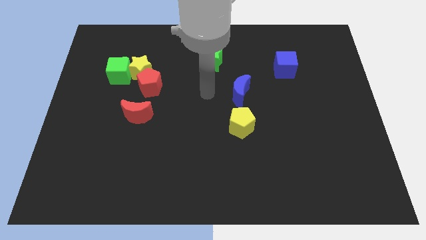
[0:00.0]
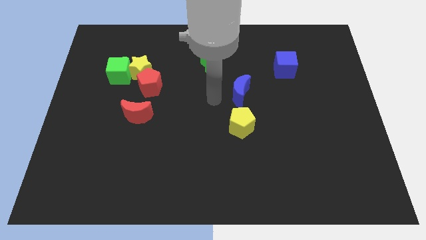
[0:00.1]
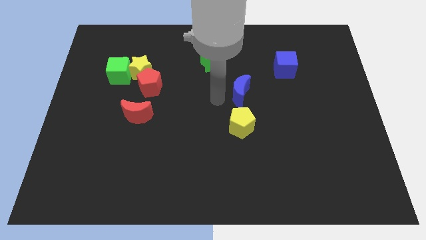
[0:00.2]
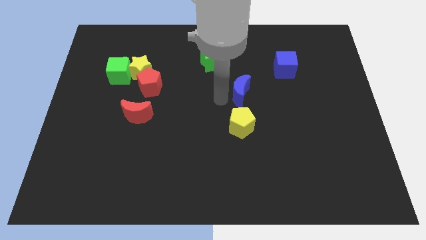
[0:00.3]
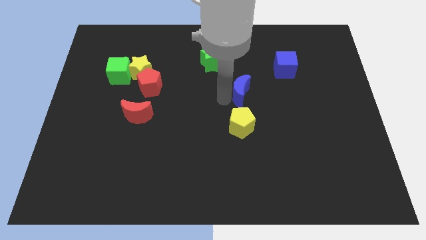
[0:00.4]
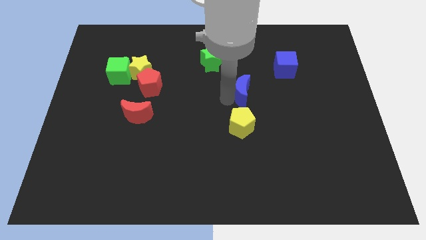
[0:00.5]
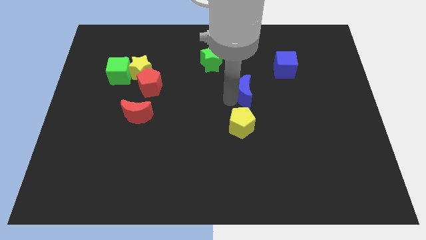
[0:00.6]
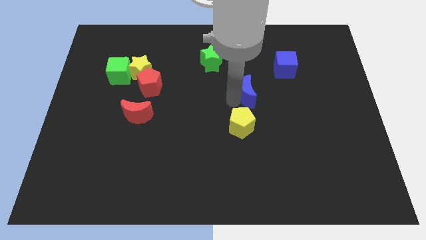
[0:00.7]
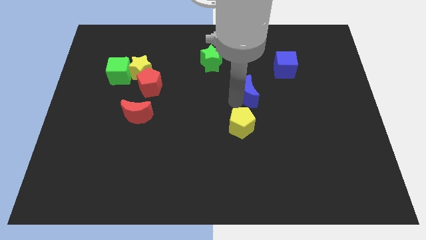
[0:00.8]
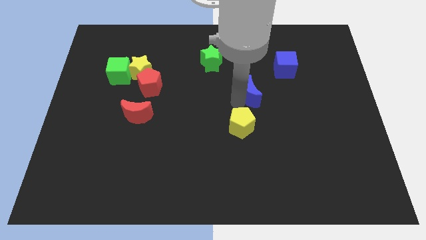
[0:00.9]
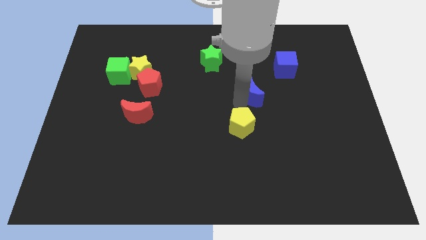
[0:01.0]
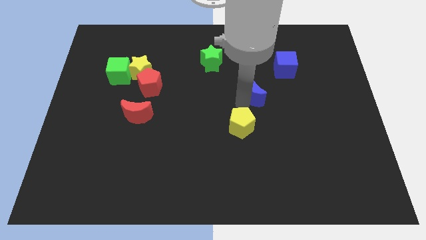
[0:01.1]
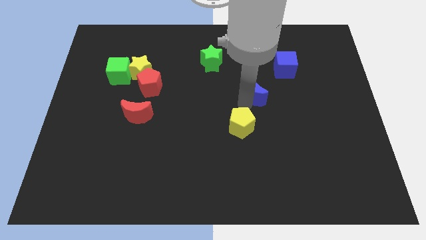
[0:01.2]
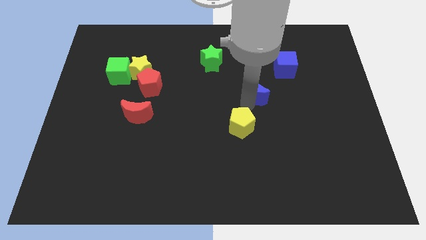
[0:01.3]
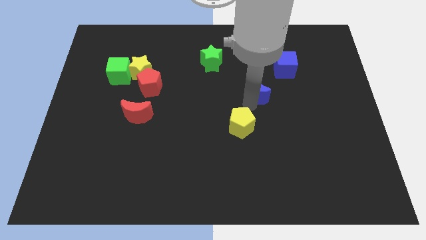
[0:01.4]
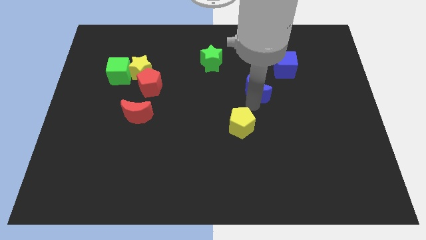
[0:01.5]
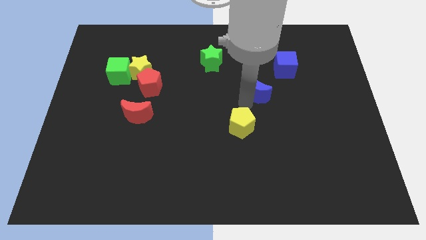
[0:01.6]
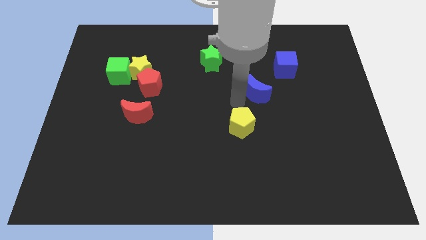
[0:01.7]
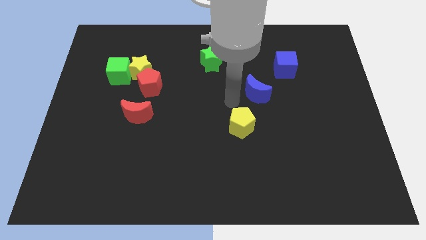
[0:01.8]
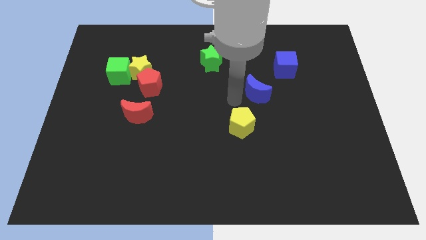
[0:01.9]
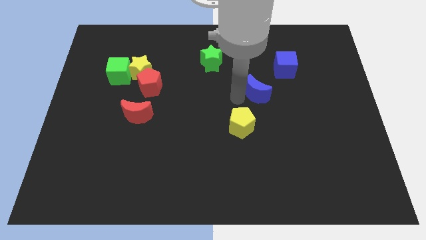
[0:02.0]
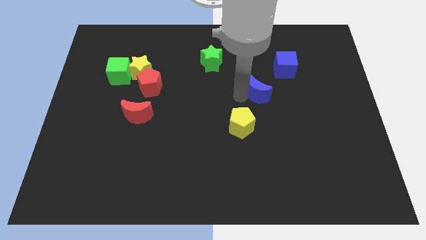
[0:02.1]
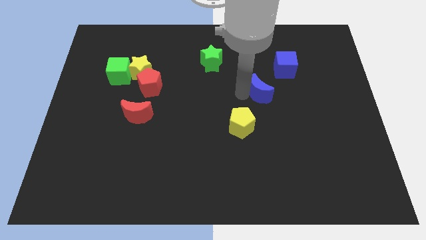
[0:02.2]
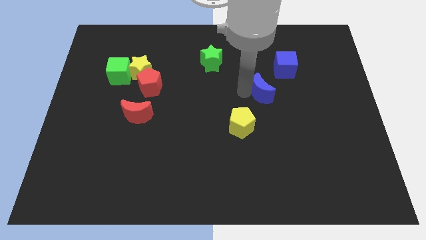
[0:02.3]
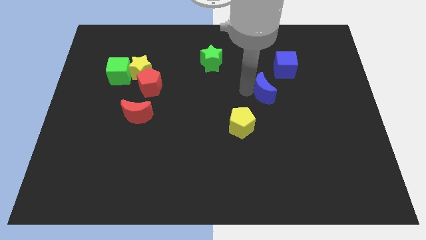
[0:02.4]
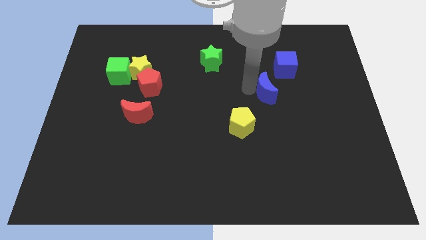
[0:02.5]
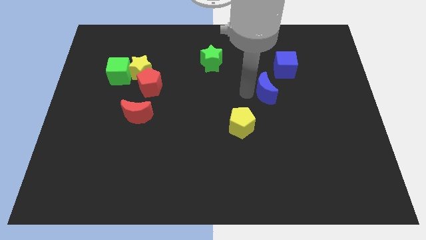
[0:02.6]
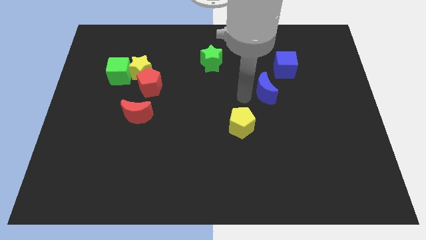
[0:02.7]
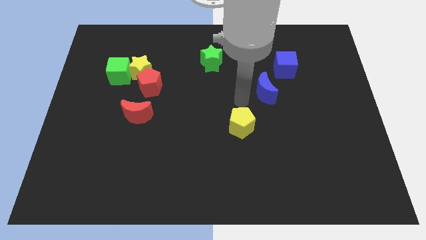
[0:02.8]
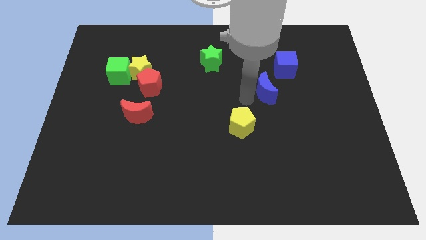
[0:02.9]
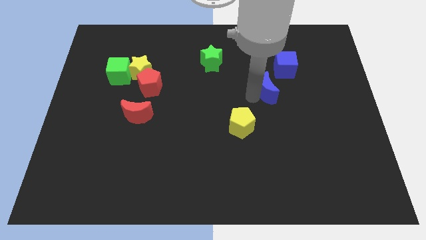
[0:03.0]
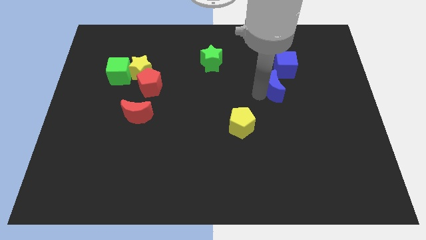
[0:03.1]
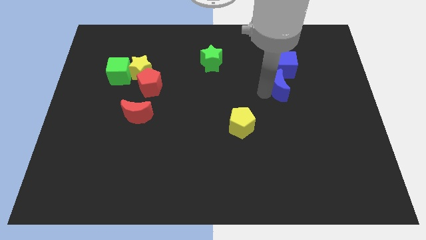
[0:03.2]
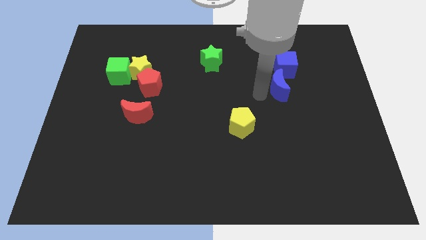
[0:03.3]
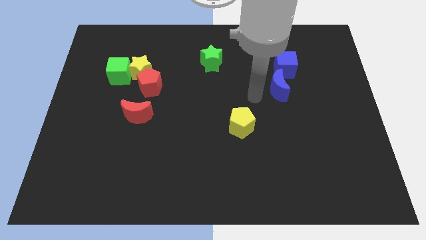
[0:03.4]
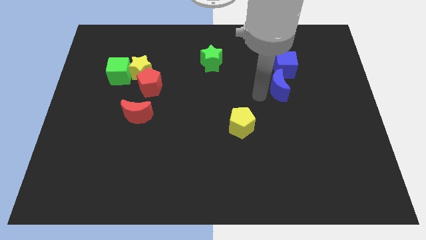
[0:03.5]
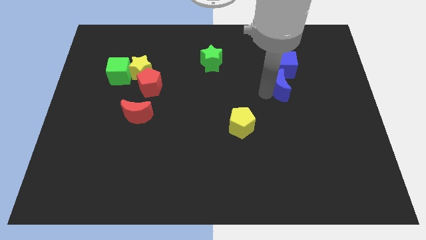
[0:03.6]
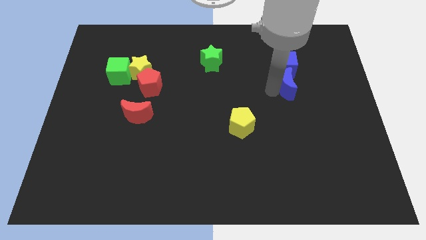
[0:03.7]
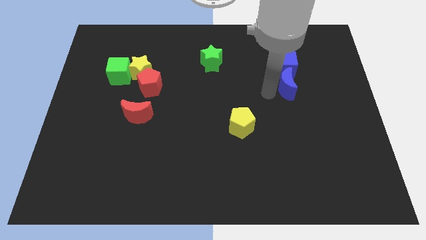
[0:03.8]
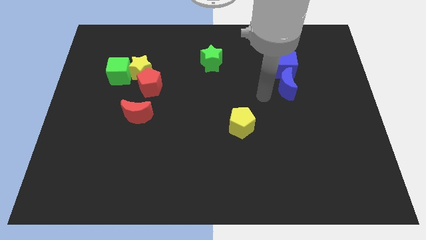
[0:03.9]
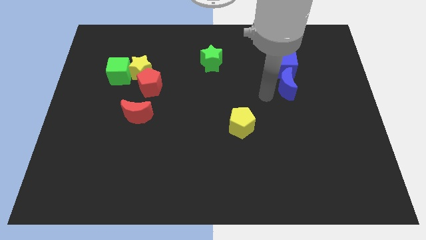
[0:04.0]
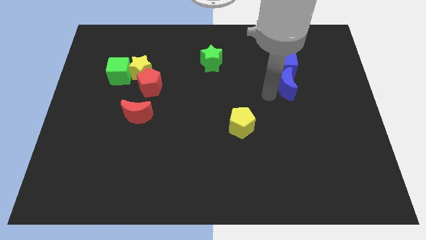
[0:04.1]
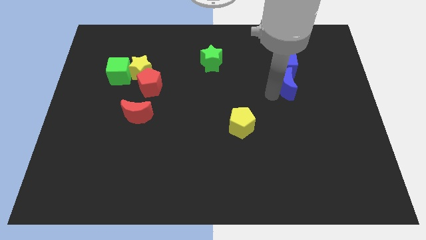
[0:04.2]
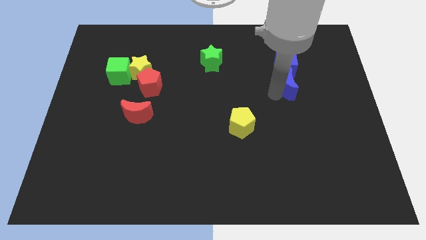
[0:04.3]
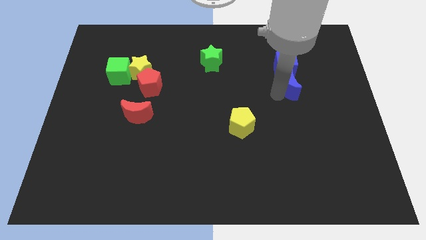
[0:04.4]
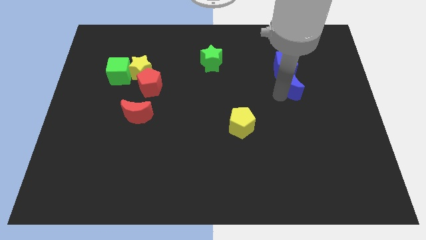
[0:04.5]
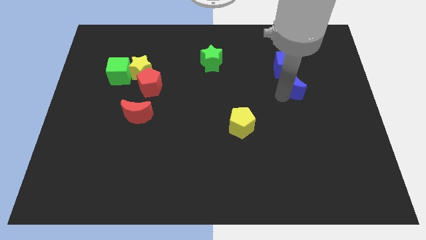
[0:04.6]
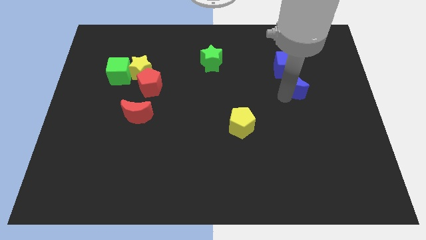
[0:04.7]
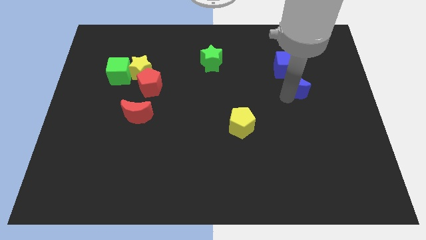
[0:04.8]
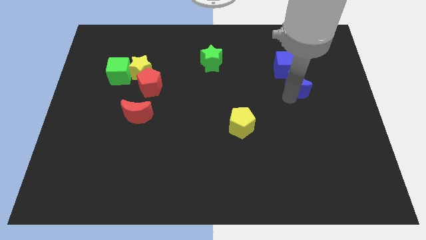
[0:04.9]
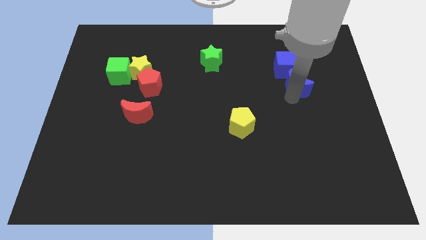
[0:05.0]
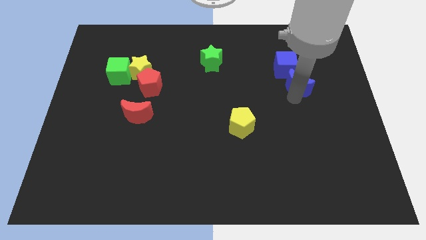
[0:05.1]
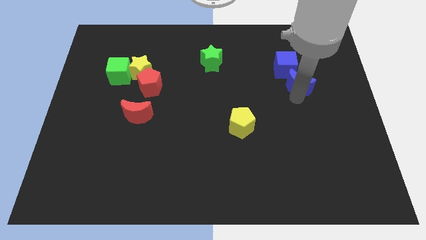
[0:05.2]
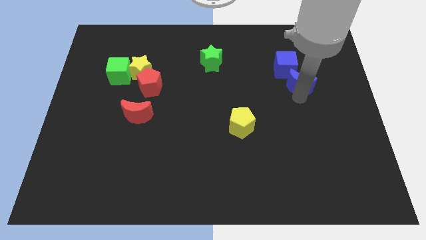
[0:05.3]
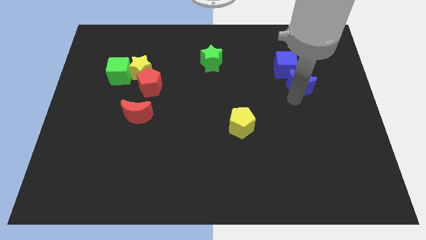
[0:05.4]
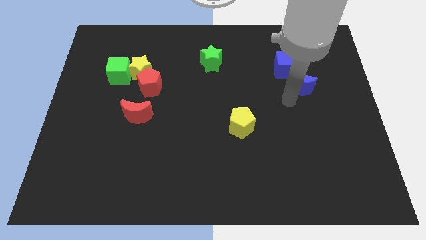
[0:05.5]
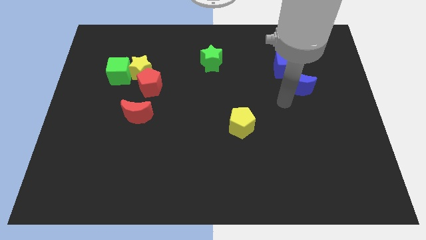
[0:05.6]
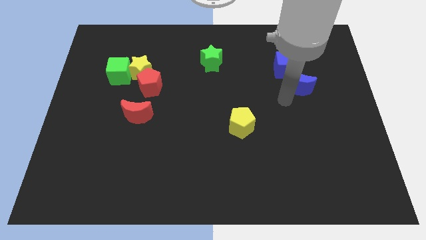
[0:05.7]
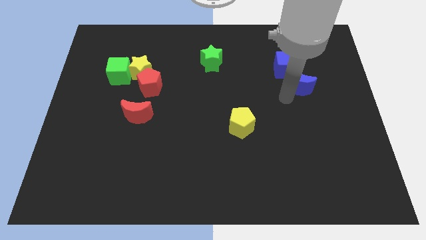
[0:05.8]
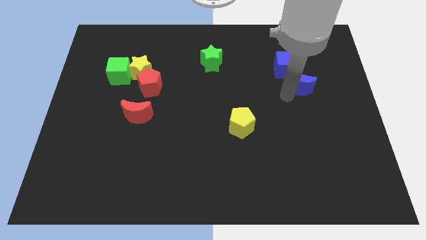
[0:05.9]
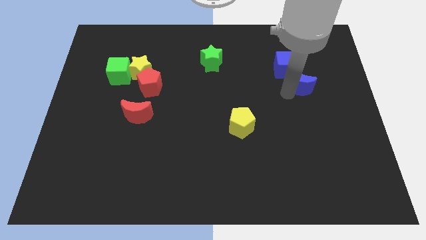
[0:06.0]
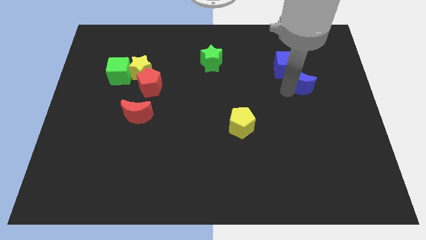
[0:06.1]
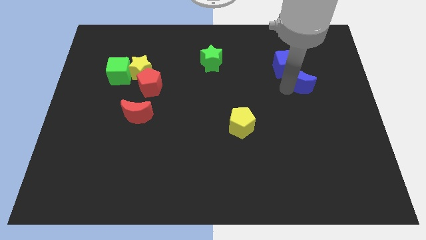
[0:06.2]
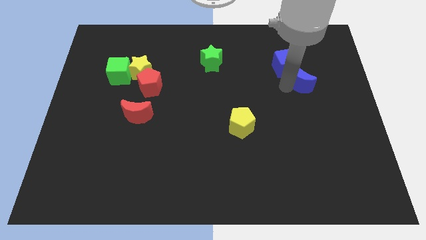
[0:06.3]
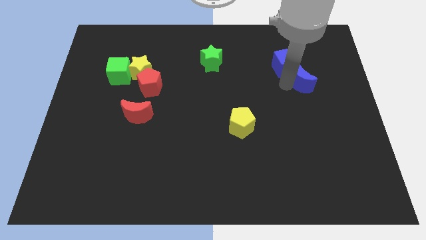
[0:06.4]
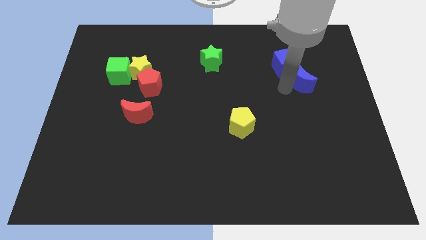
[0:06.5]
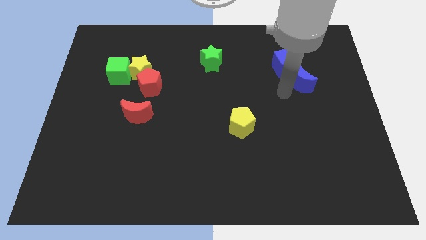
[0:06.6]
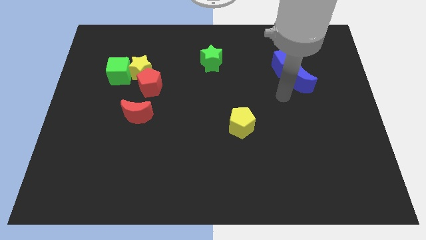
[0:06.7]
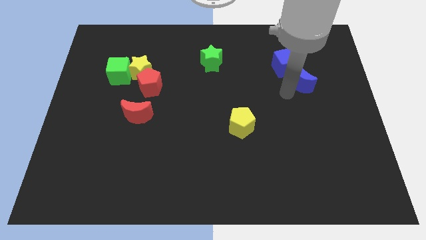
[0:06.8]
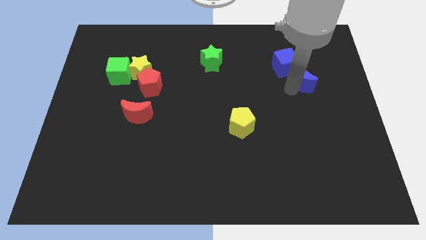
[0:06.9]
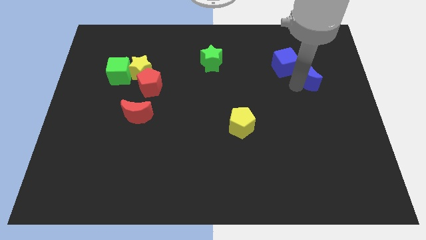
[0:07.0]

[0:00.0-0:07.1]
slide the blue moon just right of the blue cube
